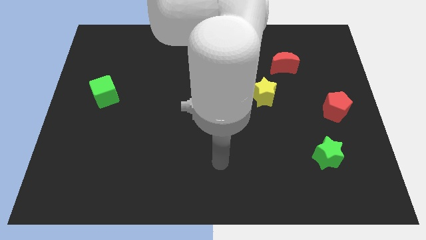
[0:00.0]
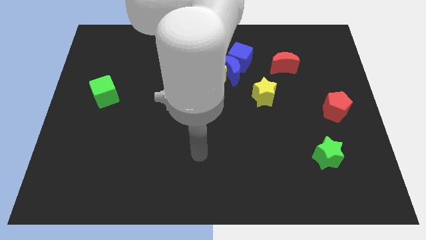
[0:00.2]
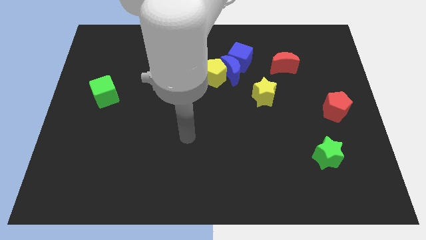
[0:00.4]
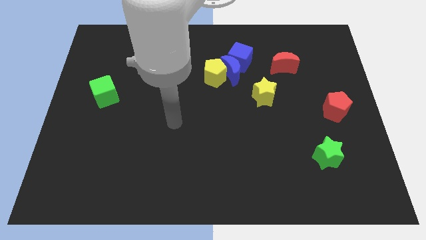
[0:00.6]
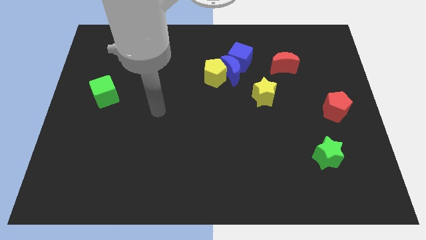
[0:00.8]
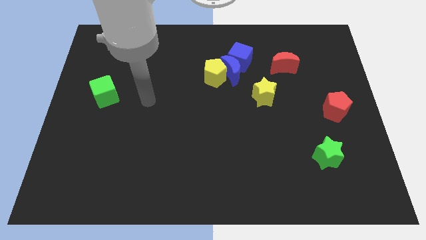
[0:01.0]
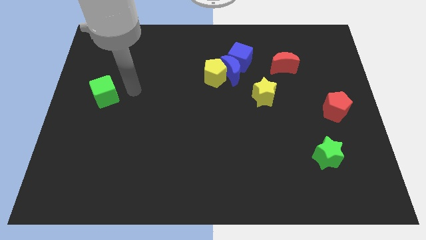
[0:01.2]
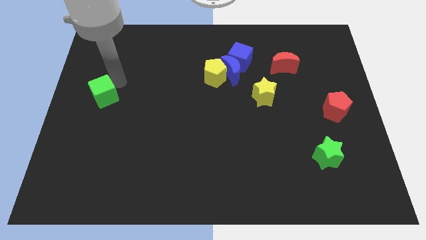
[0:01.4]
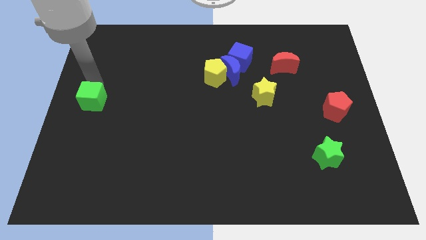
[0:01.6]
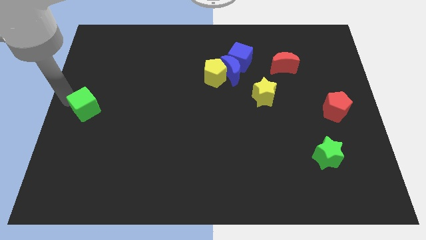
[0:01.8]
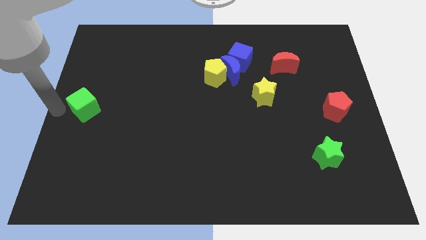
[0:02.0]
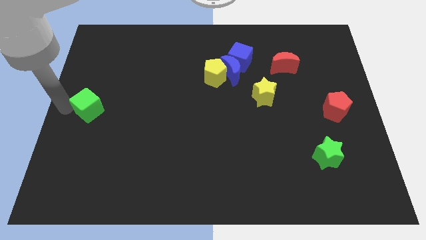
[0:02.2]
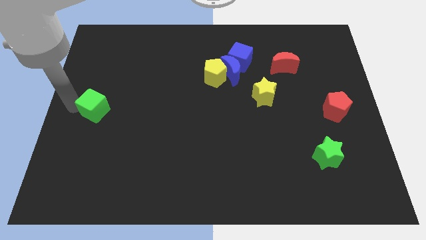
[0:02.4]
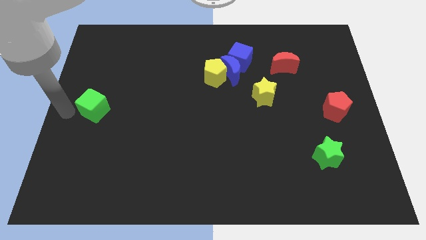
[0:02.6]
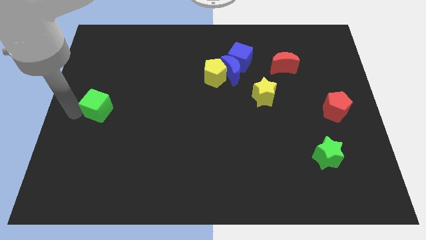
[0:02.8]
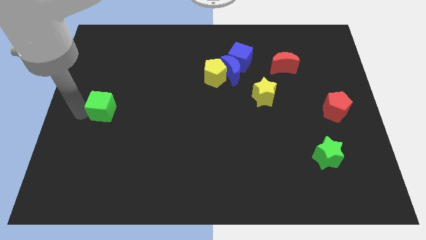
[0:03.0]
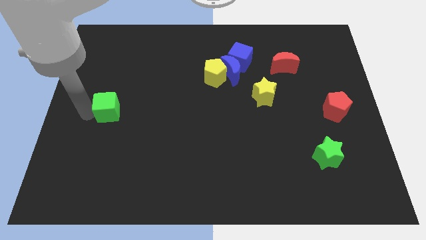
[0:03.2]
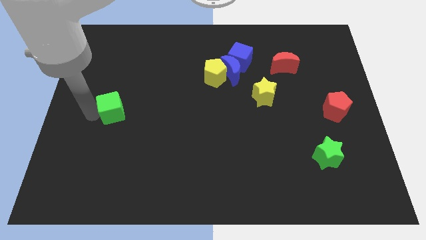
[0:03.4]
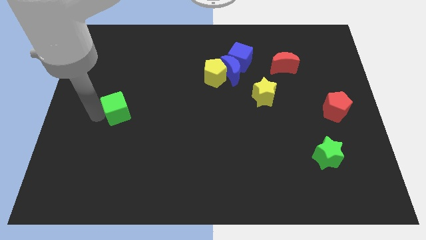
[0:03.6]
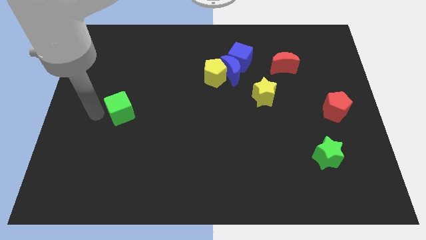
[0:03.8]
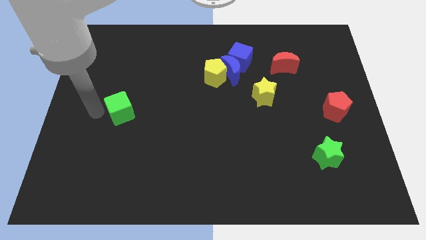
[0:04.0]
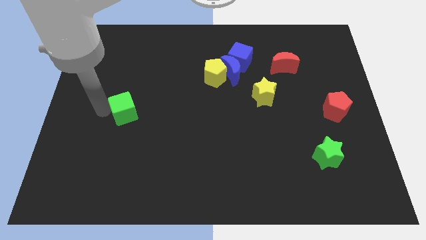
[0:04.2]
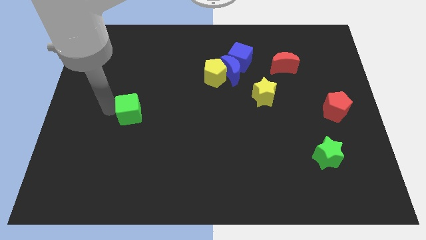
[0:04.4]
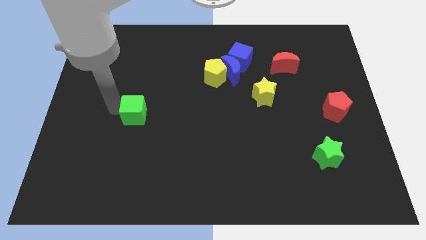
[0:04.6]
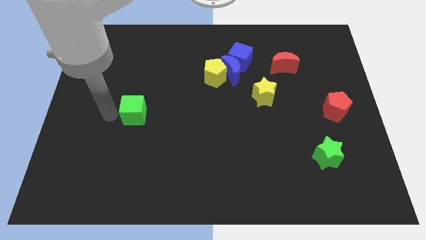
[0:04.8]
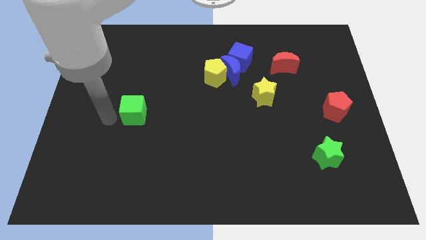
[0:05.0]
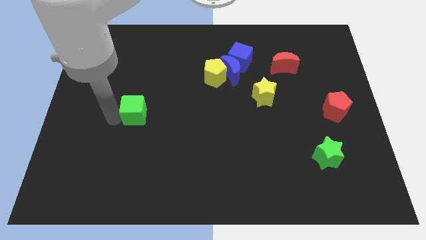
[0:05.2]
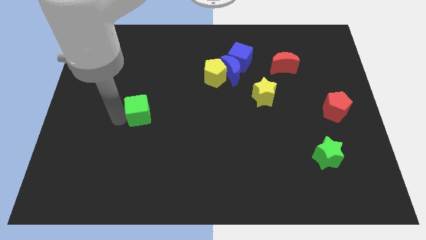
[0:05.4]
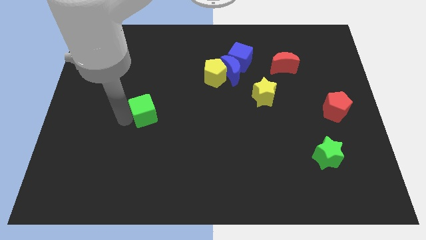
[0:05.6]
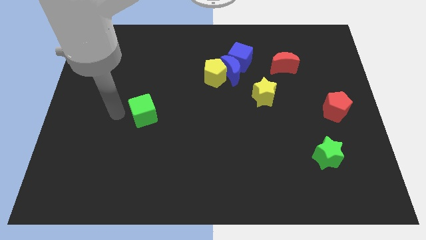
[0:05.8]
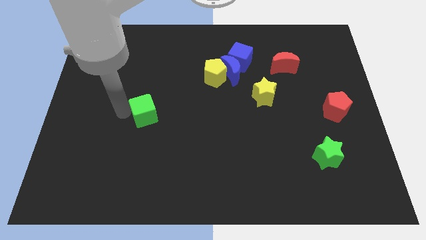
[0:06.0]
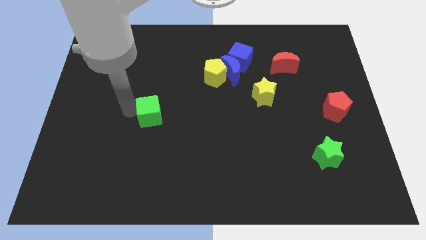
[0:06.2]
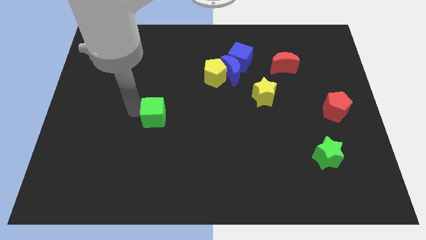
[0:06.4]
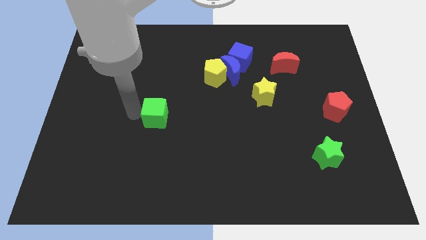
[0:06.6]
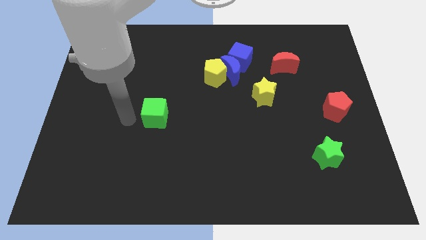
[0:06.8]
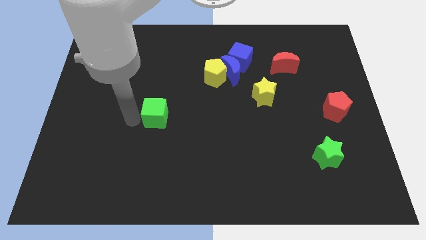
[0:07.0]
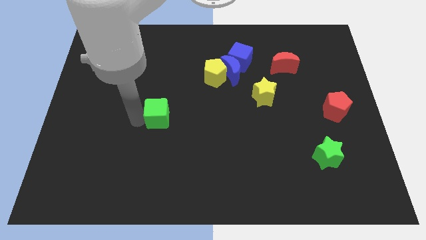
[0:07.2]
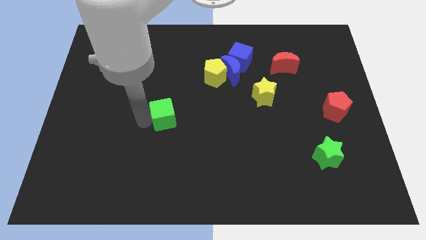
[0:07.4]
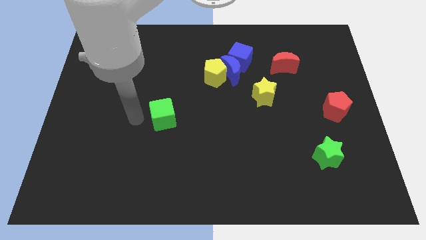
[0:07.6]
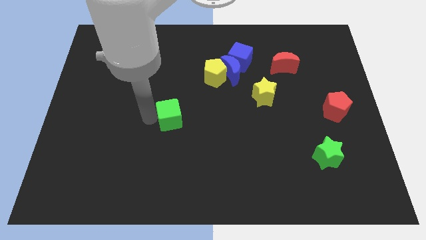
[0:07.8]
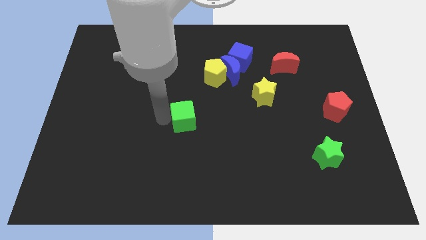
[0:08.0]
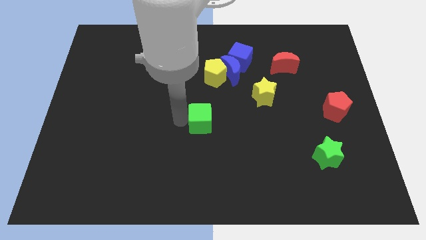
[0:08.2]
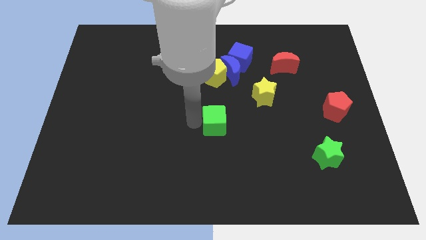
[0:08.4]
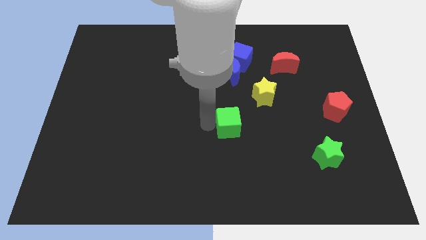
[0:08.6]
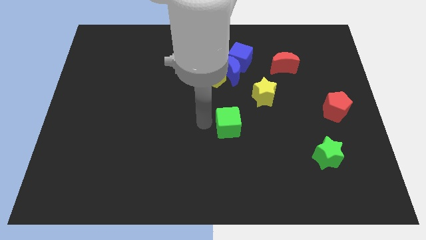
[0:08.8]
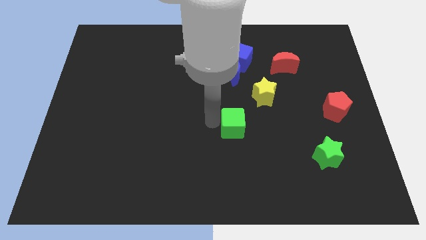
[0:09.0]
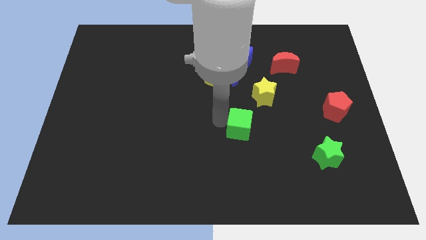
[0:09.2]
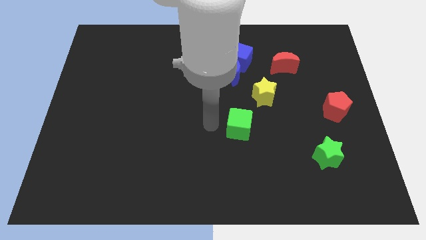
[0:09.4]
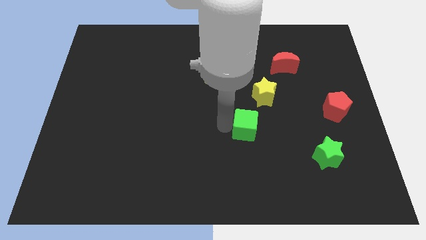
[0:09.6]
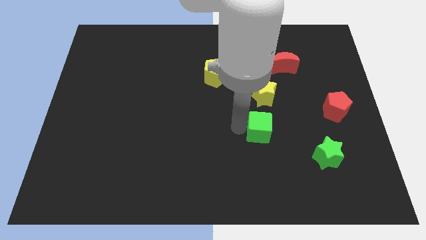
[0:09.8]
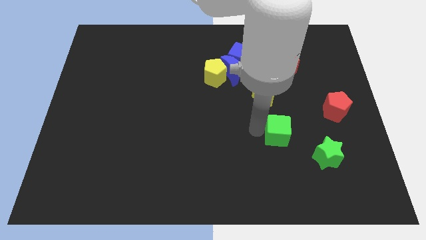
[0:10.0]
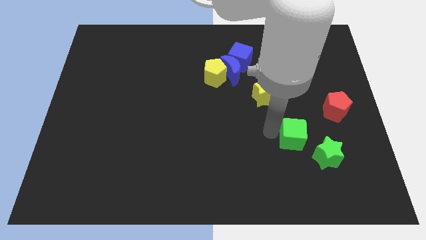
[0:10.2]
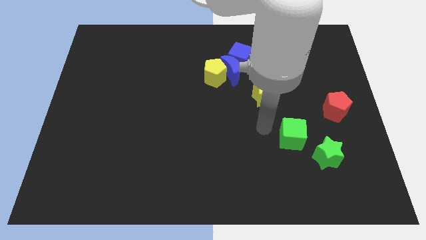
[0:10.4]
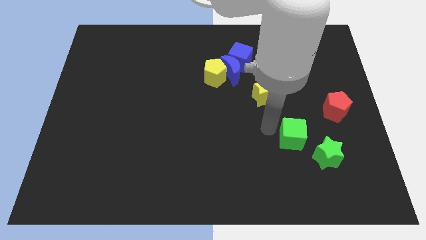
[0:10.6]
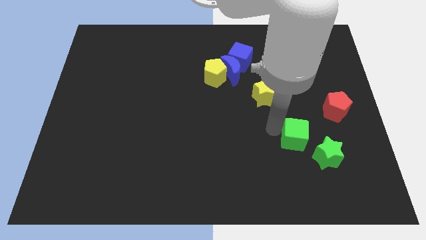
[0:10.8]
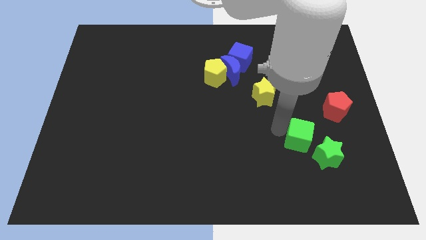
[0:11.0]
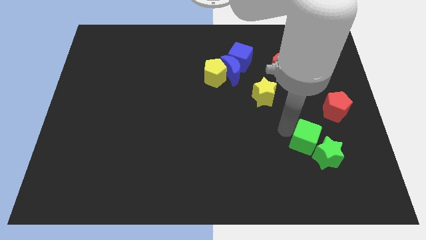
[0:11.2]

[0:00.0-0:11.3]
slide the green cube to the green star

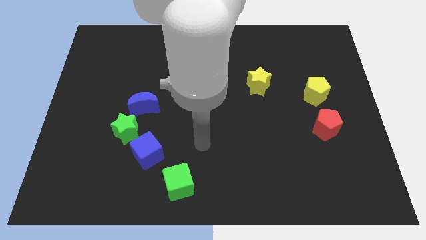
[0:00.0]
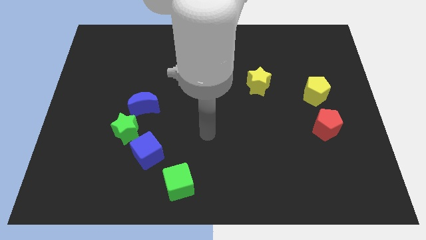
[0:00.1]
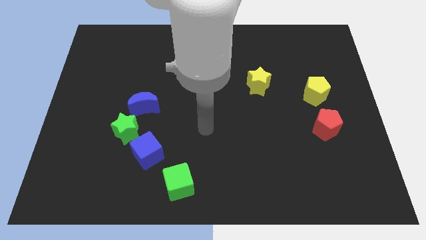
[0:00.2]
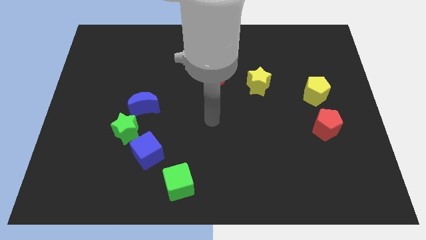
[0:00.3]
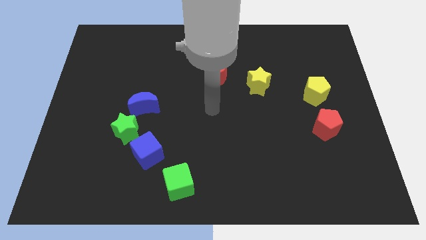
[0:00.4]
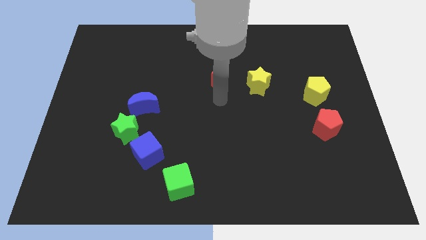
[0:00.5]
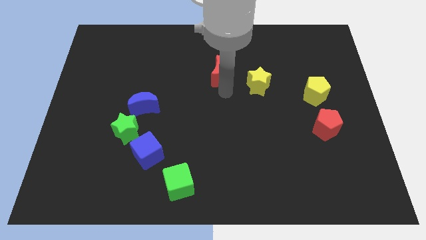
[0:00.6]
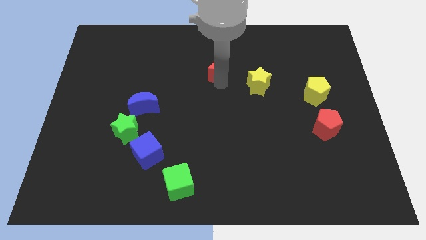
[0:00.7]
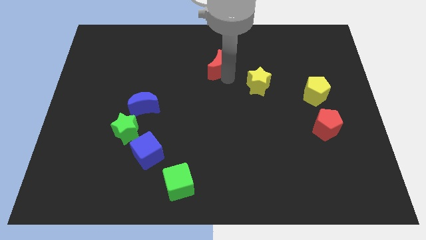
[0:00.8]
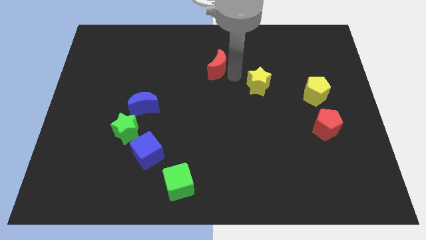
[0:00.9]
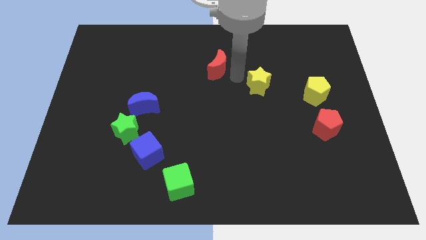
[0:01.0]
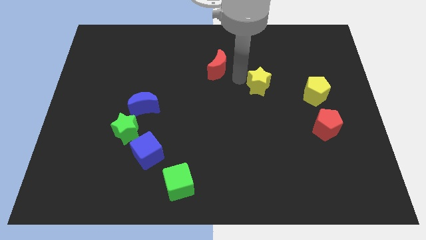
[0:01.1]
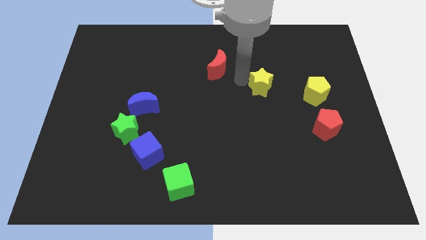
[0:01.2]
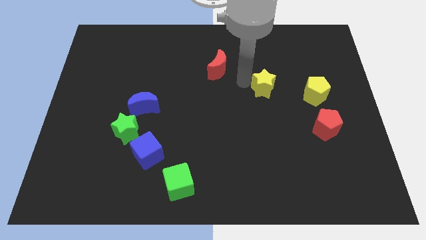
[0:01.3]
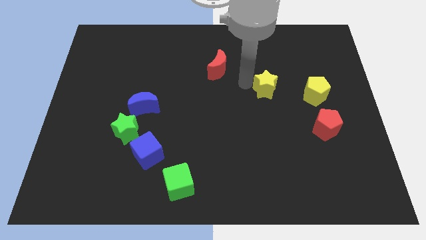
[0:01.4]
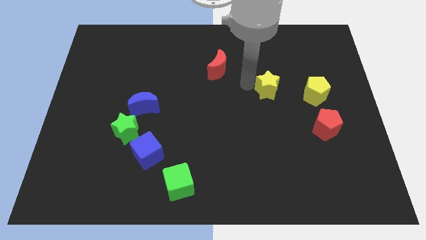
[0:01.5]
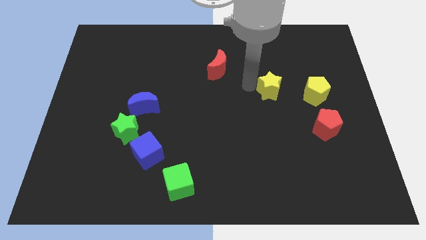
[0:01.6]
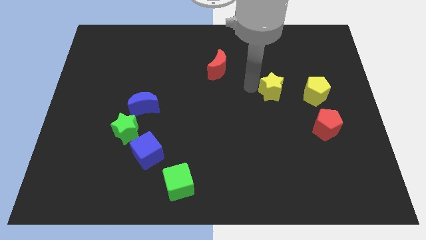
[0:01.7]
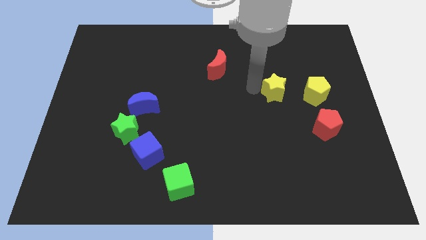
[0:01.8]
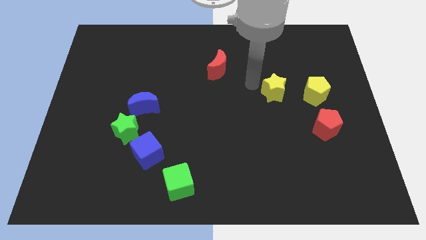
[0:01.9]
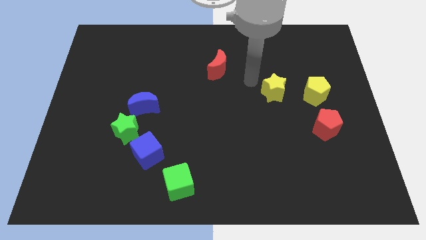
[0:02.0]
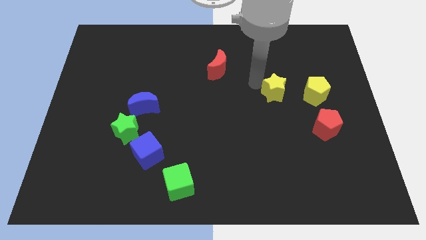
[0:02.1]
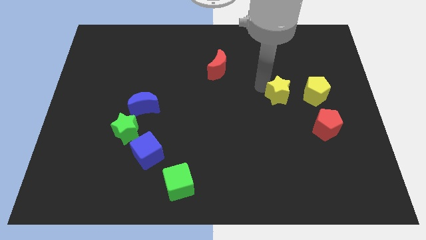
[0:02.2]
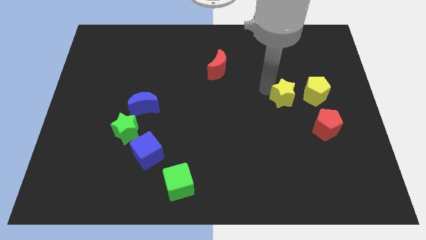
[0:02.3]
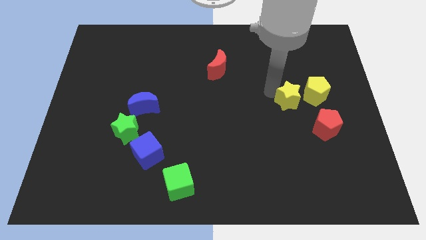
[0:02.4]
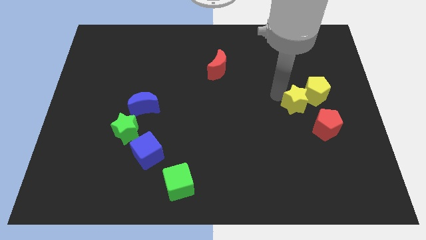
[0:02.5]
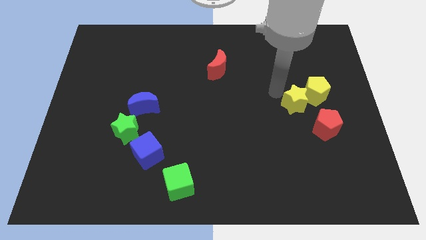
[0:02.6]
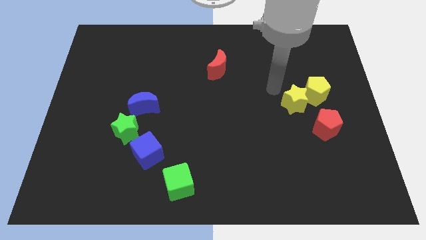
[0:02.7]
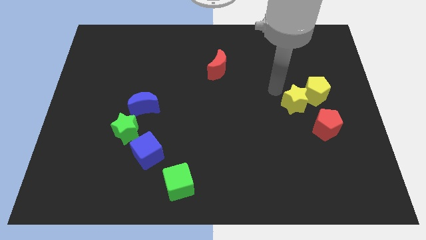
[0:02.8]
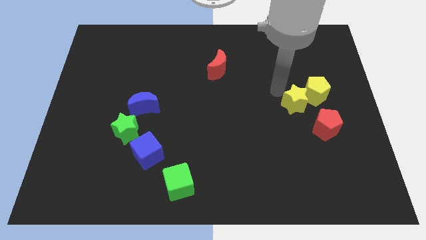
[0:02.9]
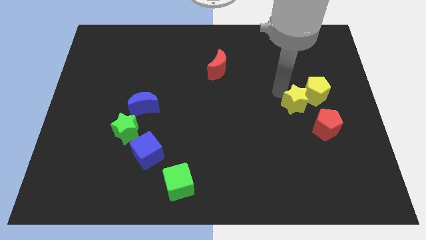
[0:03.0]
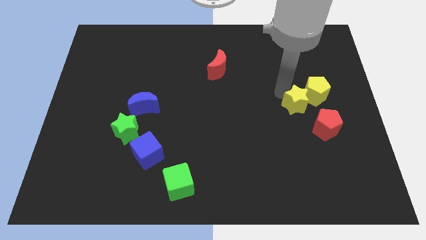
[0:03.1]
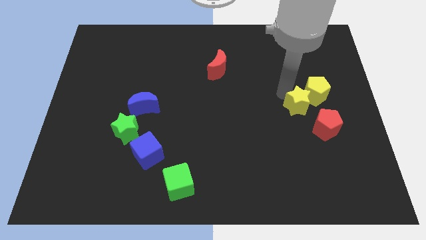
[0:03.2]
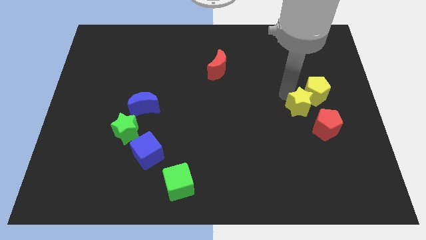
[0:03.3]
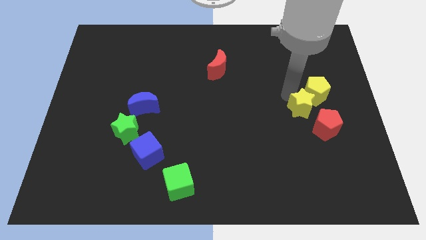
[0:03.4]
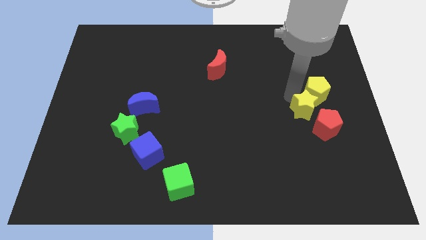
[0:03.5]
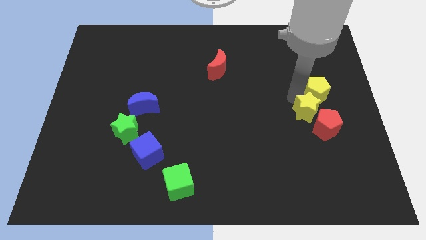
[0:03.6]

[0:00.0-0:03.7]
push the yellow star to the red pentagon
